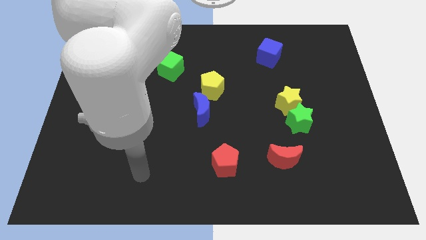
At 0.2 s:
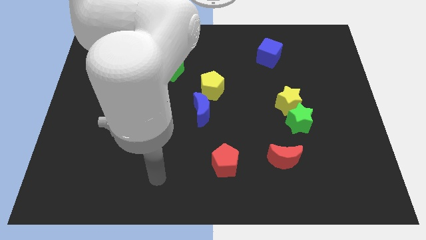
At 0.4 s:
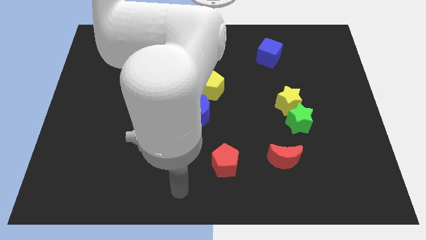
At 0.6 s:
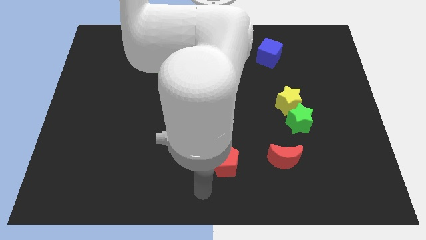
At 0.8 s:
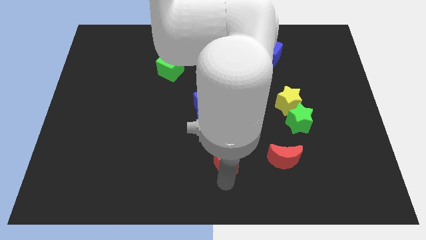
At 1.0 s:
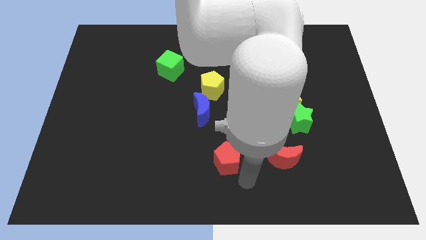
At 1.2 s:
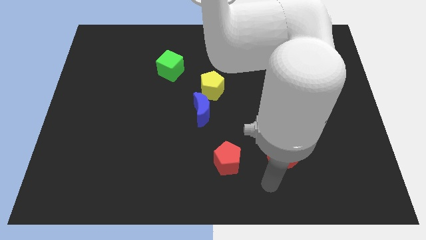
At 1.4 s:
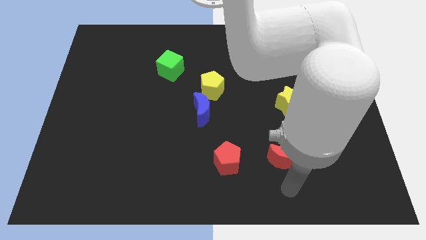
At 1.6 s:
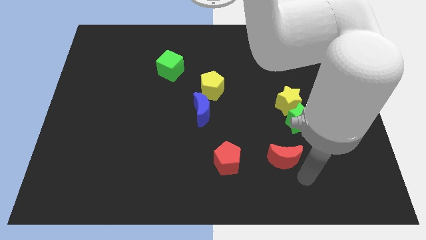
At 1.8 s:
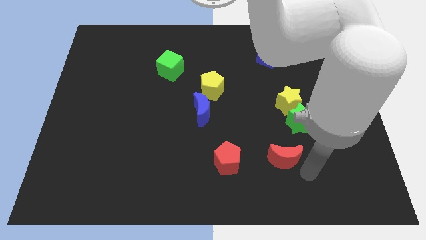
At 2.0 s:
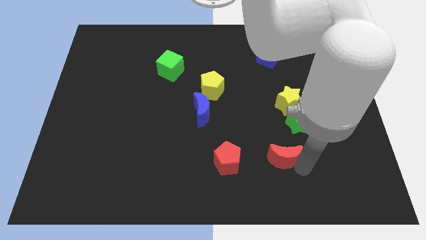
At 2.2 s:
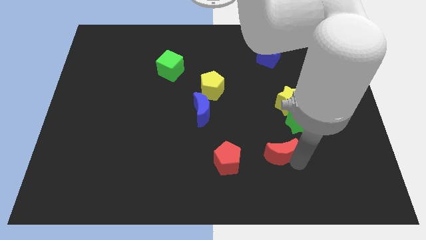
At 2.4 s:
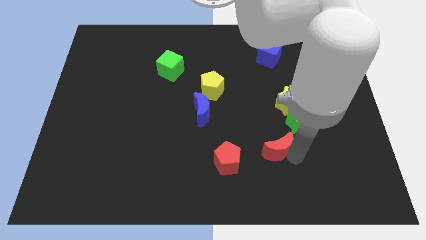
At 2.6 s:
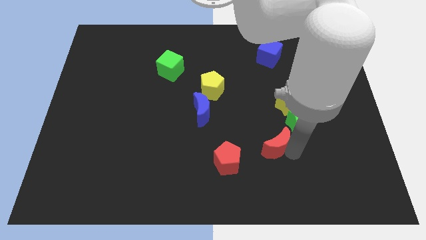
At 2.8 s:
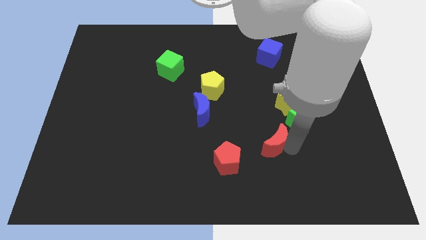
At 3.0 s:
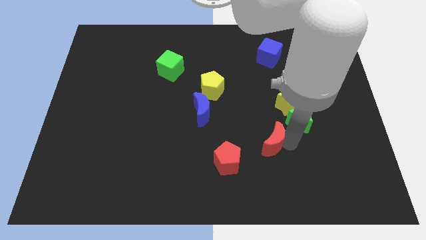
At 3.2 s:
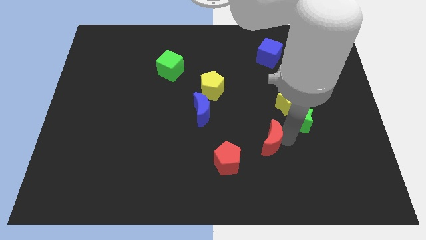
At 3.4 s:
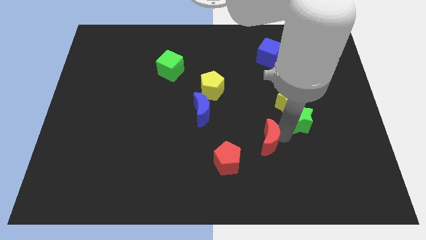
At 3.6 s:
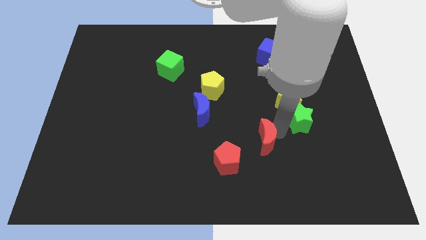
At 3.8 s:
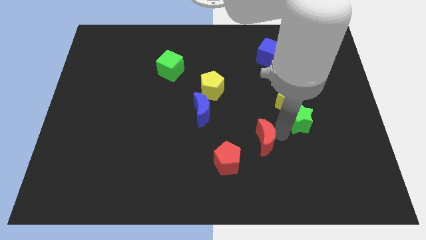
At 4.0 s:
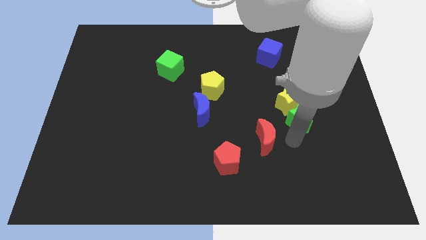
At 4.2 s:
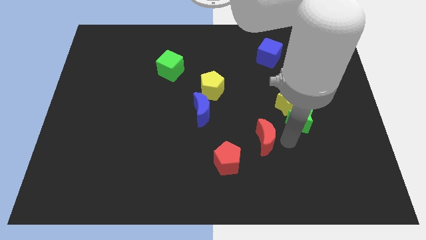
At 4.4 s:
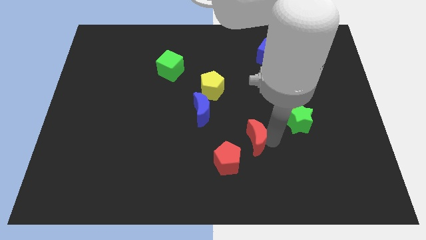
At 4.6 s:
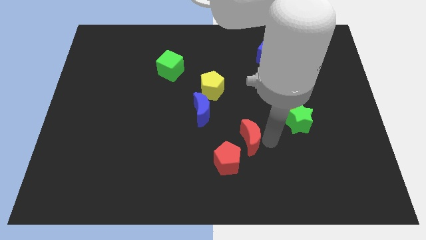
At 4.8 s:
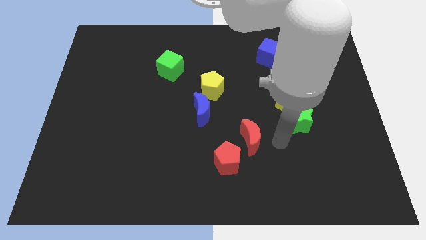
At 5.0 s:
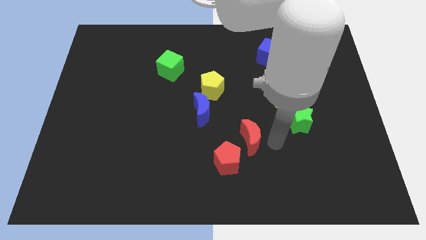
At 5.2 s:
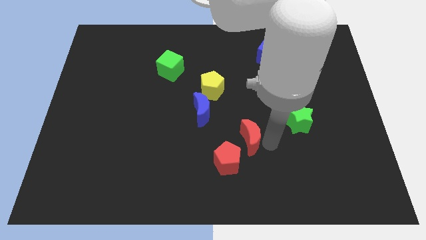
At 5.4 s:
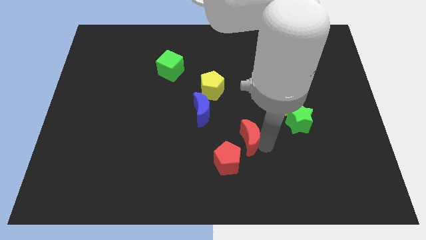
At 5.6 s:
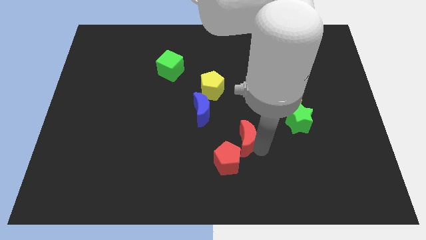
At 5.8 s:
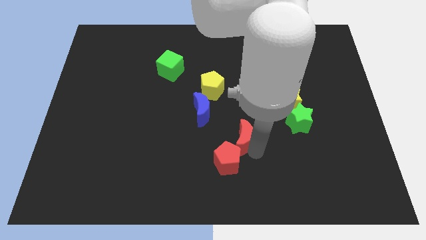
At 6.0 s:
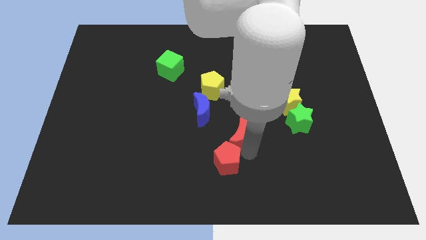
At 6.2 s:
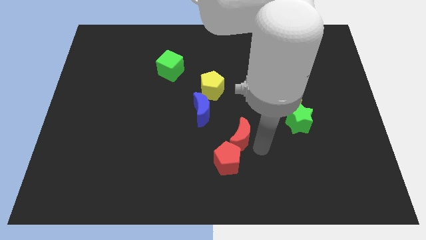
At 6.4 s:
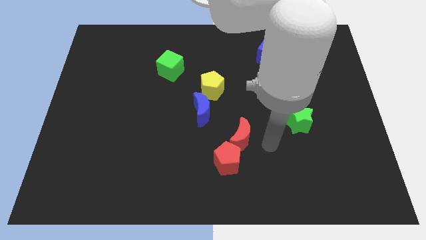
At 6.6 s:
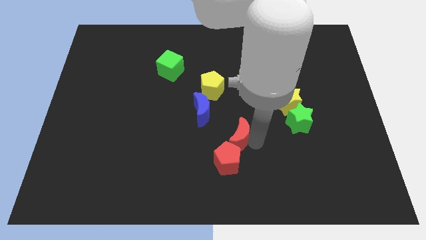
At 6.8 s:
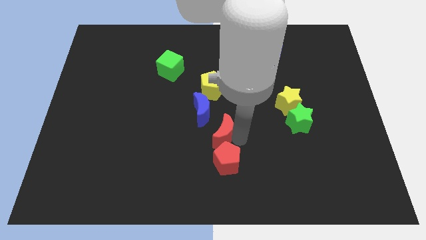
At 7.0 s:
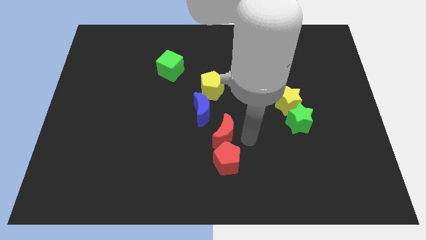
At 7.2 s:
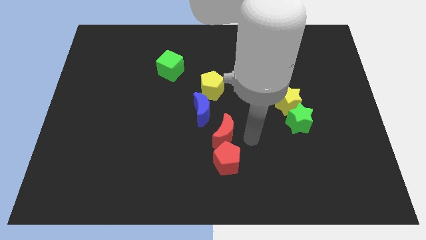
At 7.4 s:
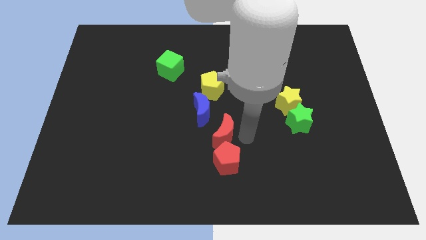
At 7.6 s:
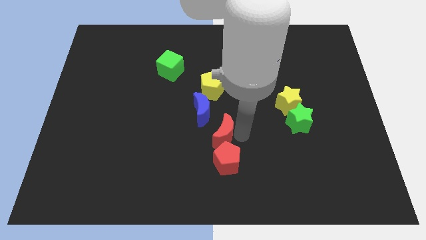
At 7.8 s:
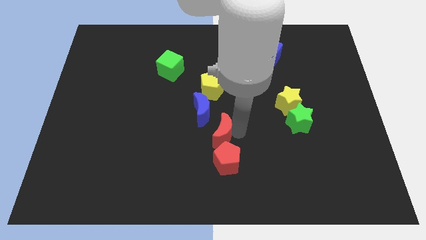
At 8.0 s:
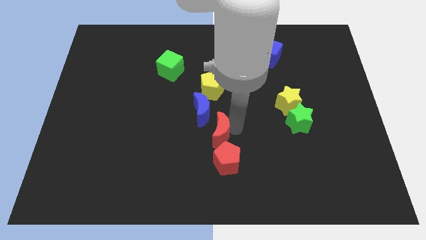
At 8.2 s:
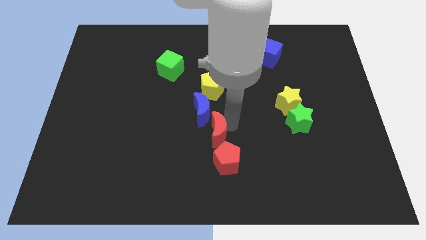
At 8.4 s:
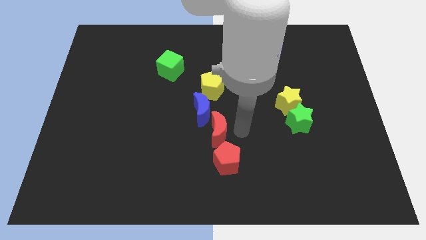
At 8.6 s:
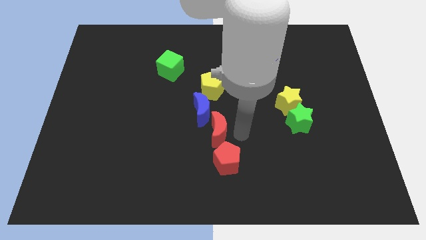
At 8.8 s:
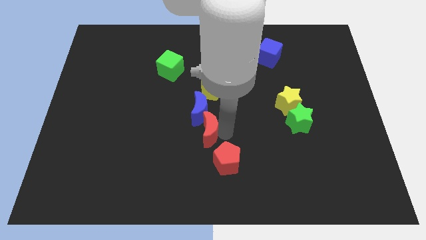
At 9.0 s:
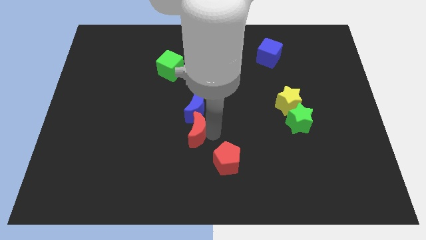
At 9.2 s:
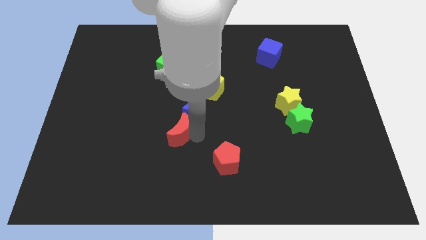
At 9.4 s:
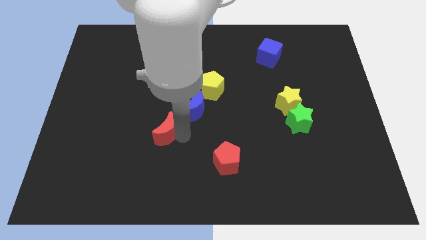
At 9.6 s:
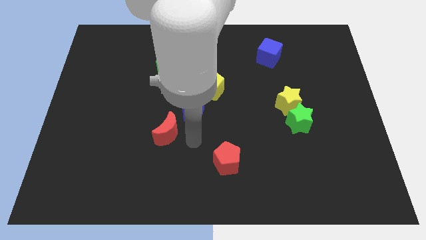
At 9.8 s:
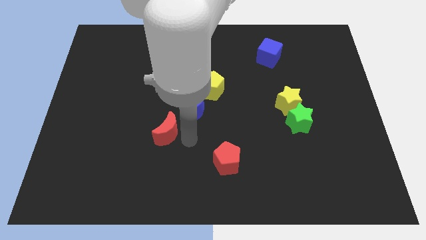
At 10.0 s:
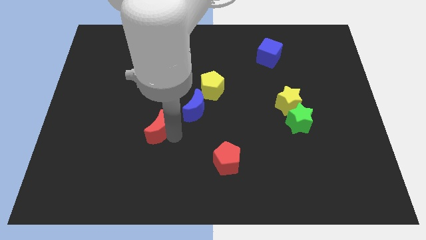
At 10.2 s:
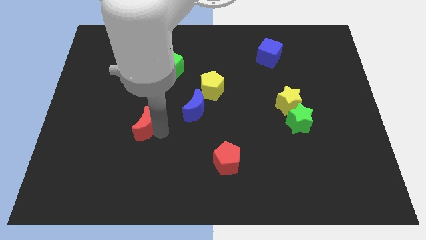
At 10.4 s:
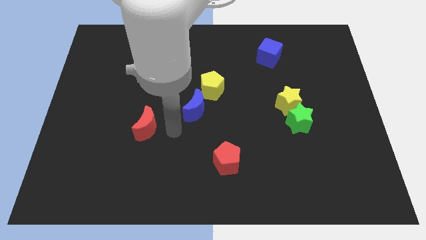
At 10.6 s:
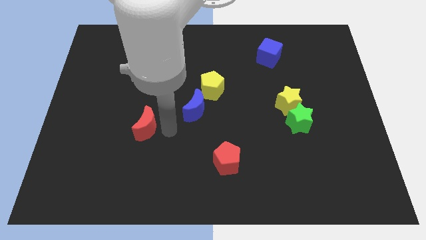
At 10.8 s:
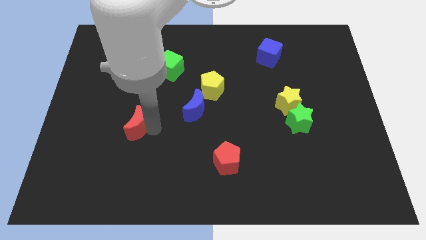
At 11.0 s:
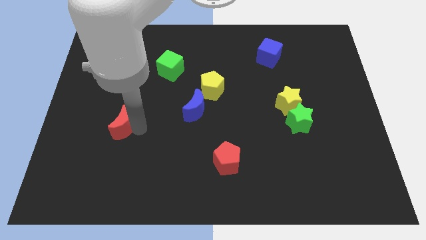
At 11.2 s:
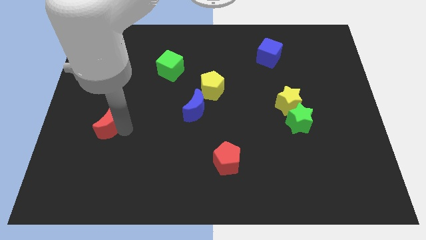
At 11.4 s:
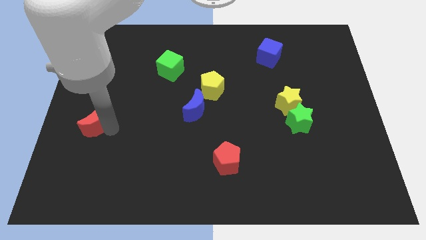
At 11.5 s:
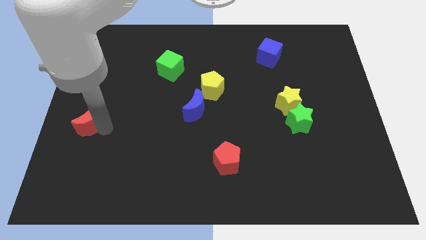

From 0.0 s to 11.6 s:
push the red moon to the center left

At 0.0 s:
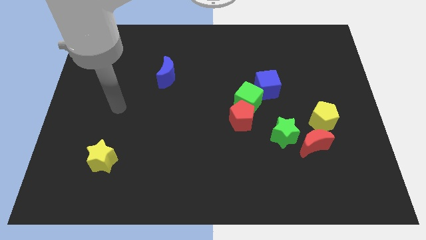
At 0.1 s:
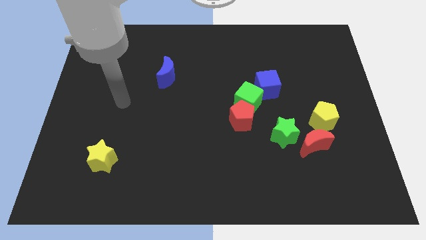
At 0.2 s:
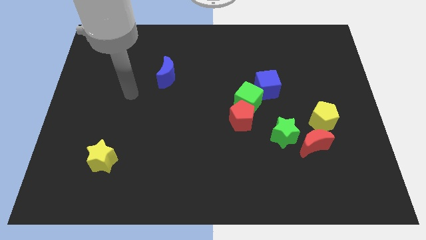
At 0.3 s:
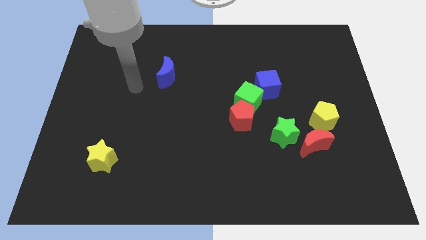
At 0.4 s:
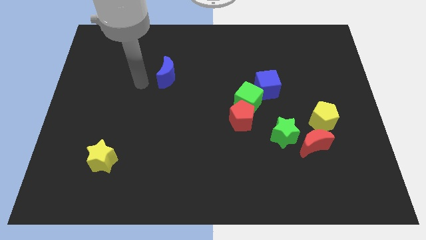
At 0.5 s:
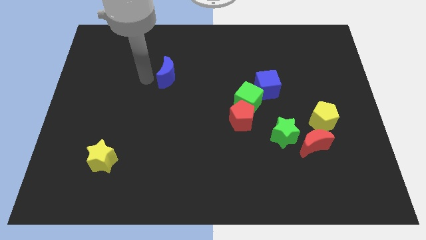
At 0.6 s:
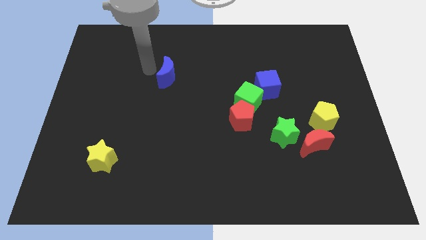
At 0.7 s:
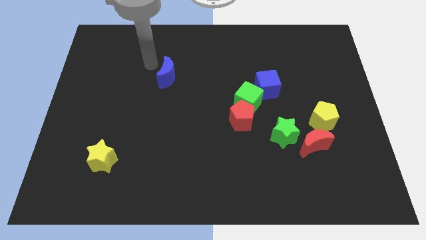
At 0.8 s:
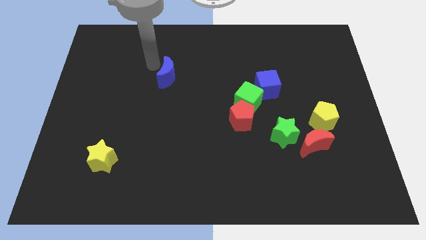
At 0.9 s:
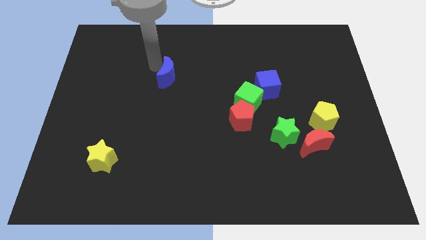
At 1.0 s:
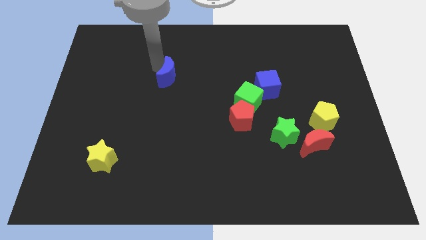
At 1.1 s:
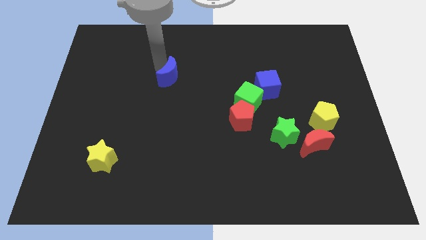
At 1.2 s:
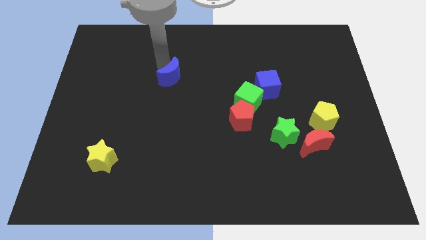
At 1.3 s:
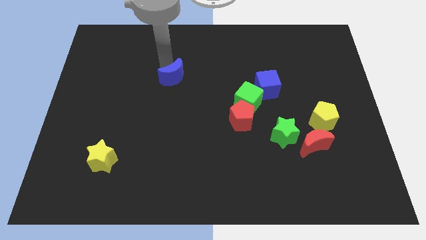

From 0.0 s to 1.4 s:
put the blue moon to the middle of the board
